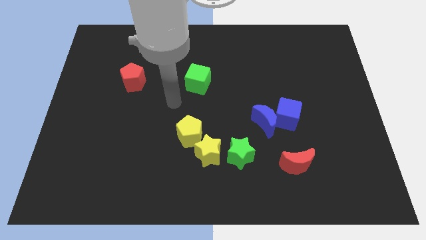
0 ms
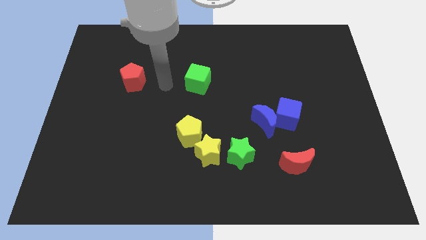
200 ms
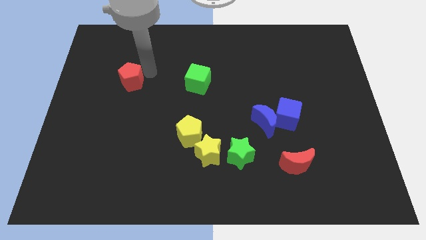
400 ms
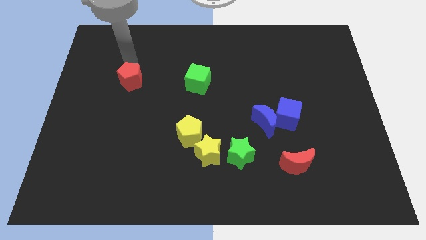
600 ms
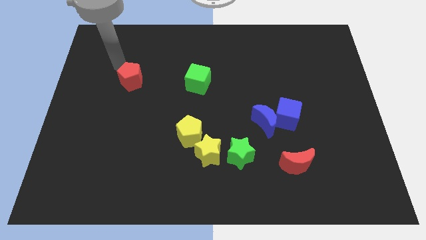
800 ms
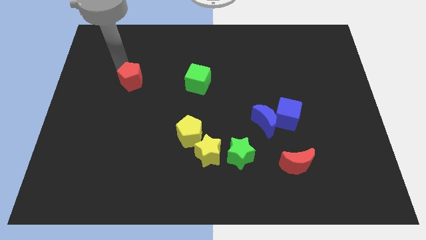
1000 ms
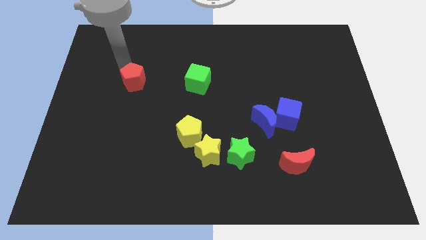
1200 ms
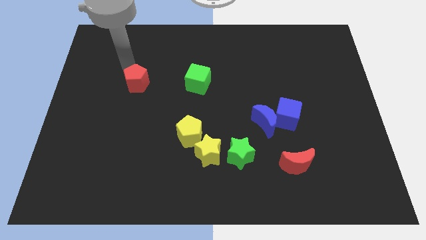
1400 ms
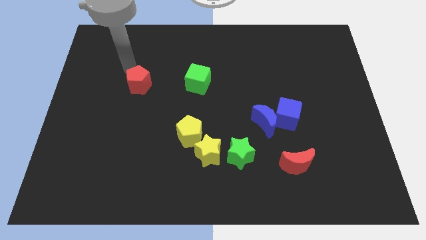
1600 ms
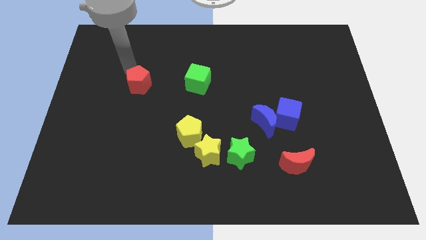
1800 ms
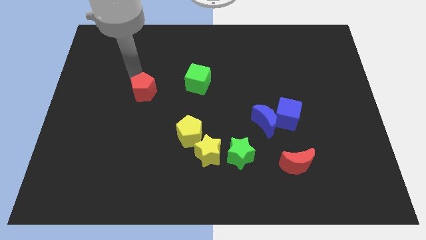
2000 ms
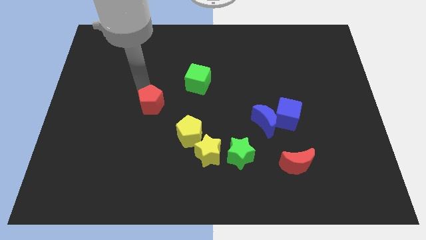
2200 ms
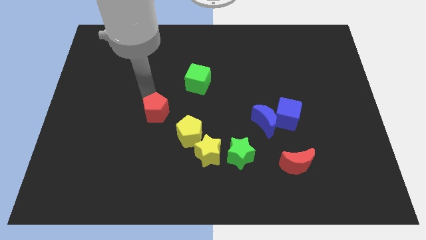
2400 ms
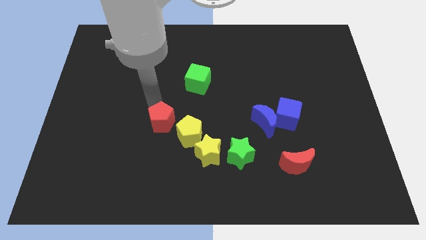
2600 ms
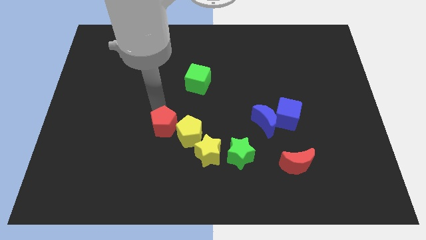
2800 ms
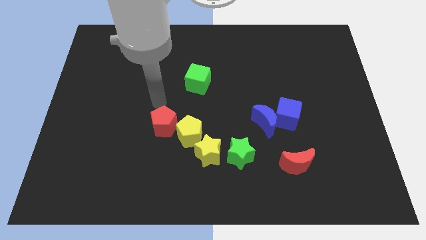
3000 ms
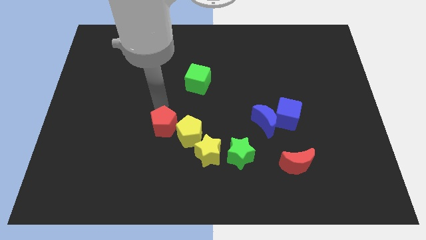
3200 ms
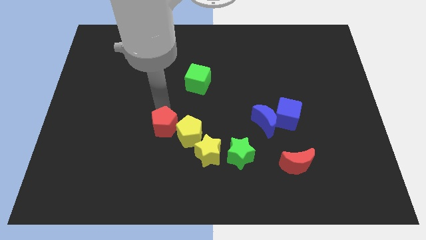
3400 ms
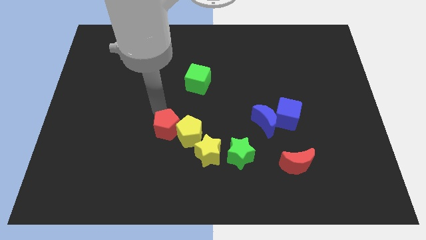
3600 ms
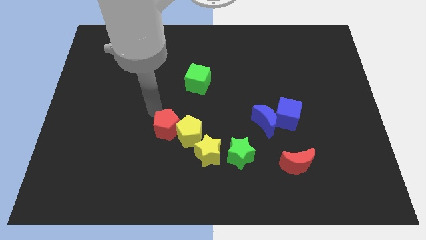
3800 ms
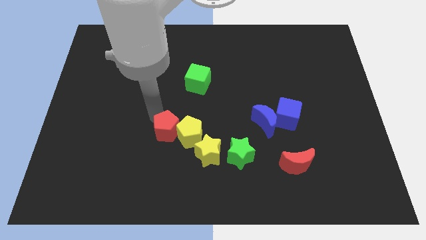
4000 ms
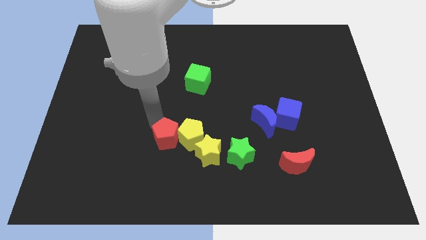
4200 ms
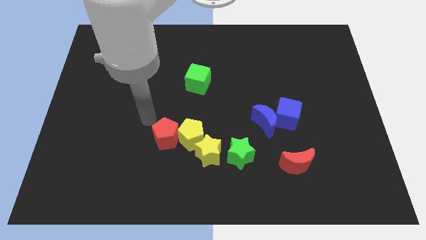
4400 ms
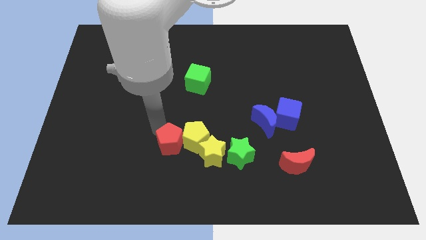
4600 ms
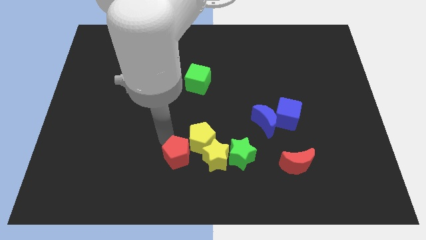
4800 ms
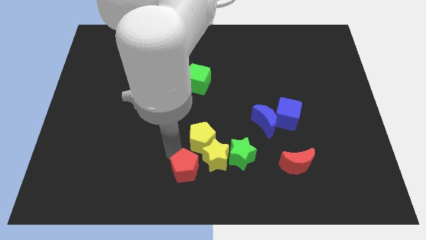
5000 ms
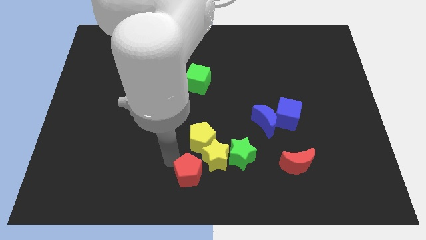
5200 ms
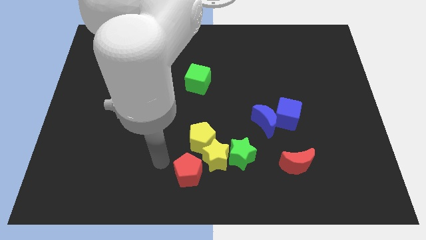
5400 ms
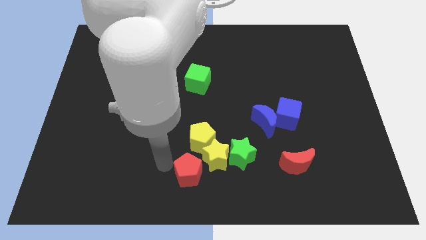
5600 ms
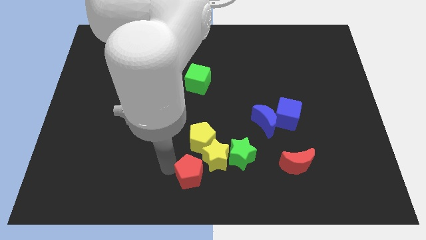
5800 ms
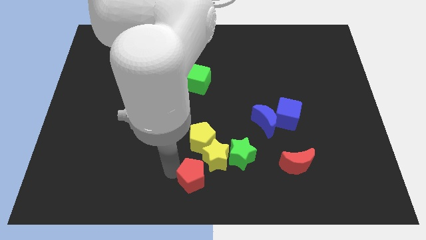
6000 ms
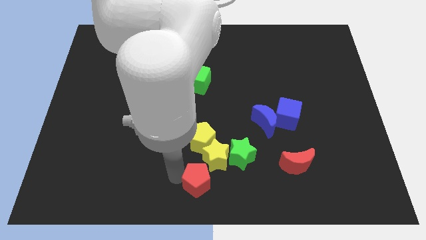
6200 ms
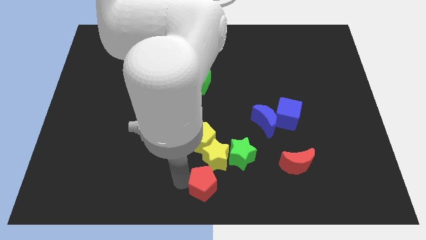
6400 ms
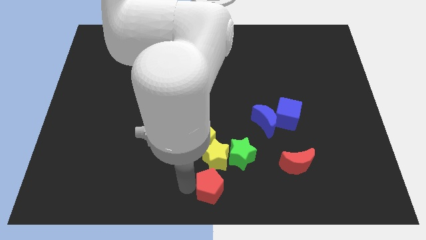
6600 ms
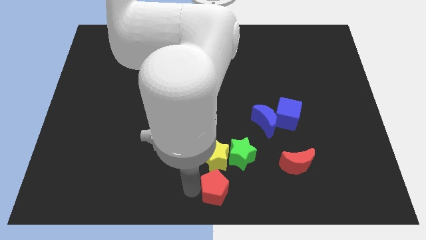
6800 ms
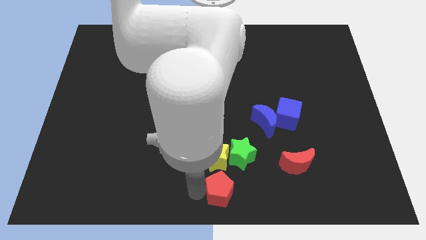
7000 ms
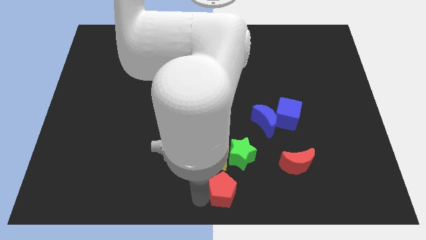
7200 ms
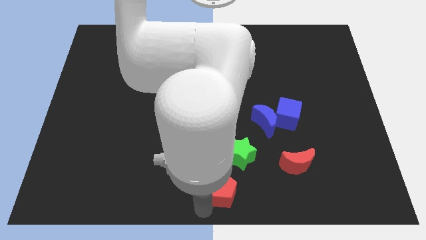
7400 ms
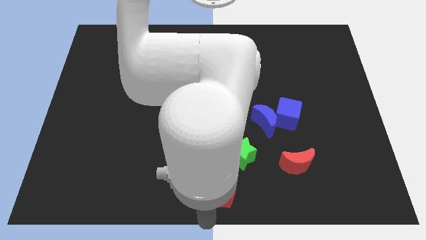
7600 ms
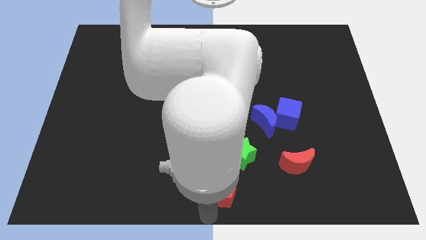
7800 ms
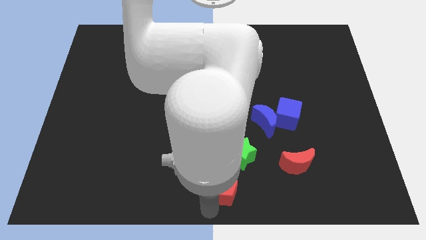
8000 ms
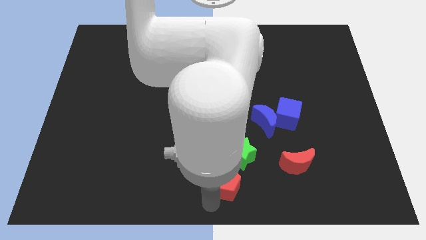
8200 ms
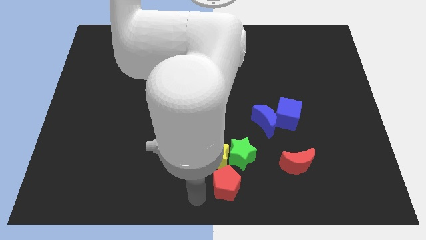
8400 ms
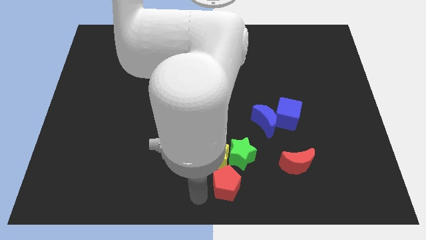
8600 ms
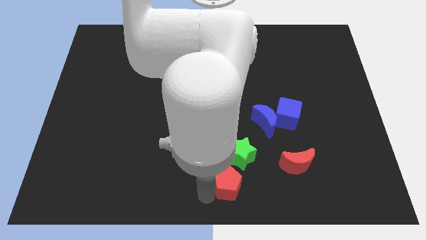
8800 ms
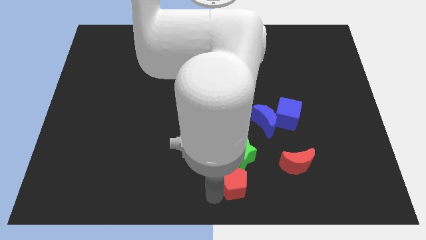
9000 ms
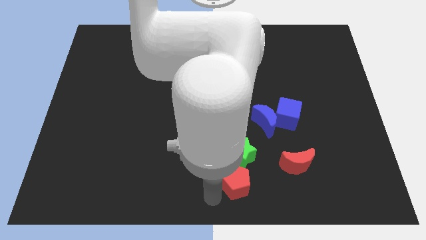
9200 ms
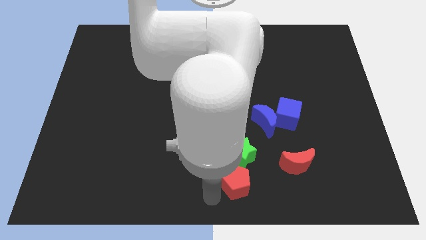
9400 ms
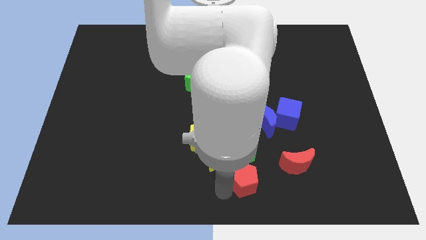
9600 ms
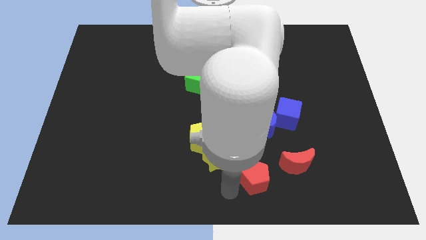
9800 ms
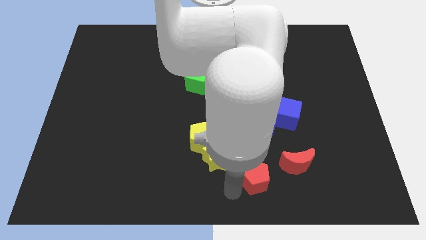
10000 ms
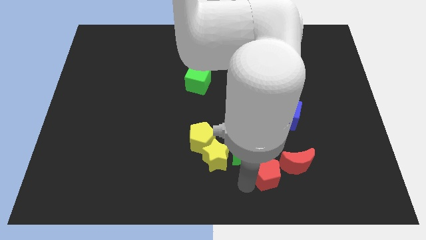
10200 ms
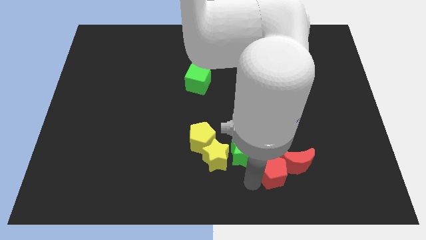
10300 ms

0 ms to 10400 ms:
put the red pentagon to the red moon
